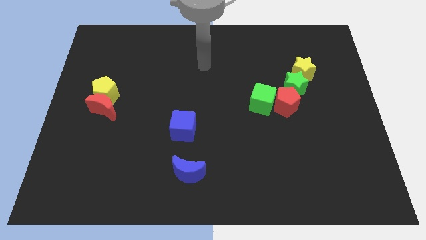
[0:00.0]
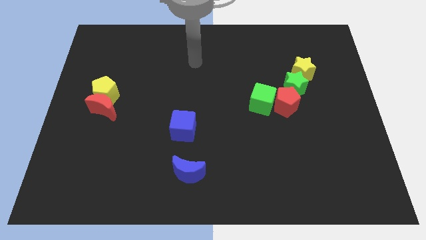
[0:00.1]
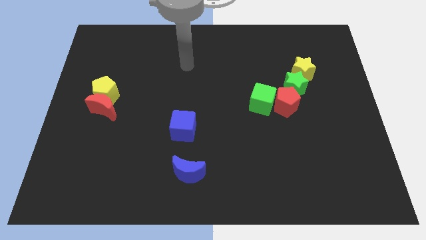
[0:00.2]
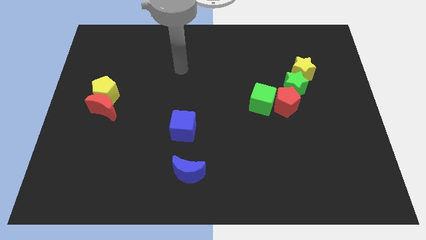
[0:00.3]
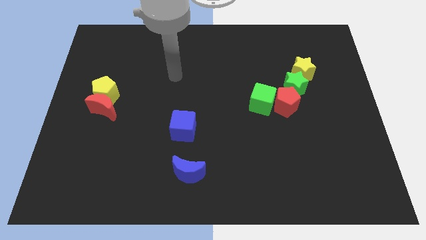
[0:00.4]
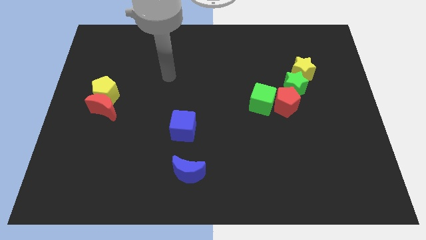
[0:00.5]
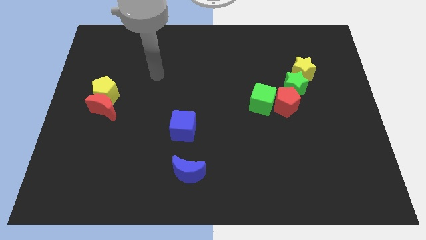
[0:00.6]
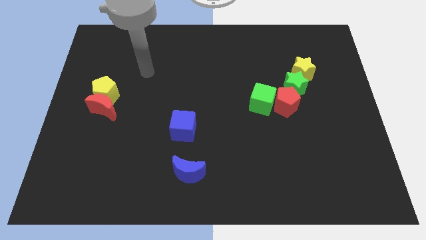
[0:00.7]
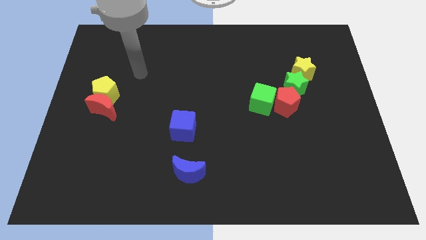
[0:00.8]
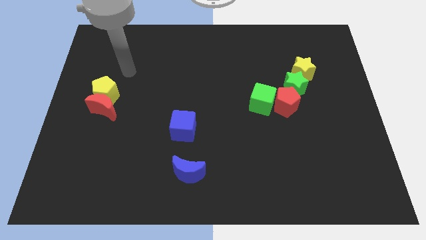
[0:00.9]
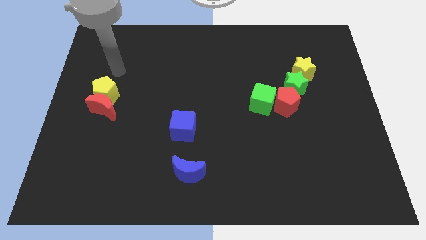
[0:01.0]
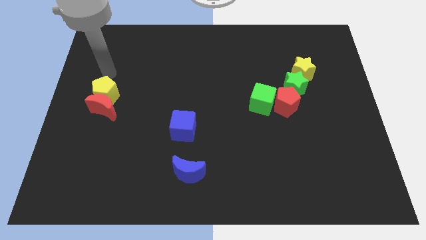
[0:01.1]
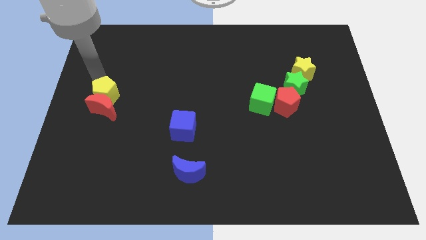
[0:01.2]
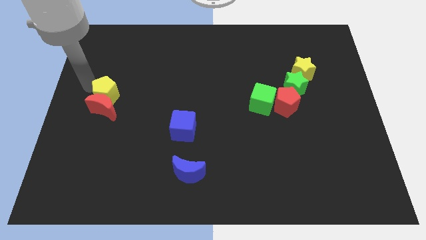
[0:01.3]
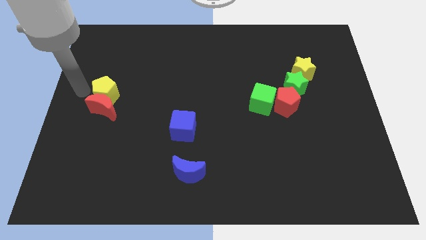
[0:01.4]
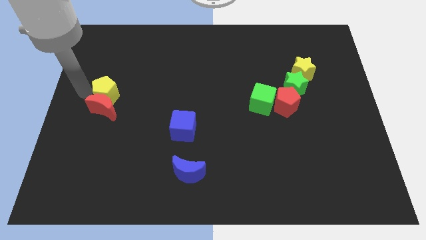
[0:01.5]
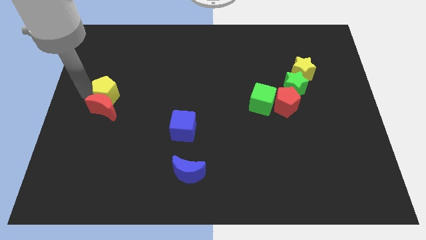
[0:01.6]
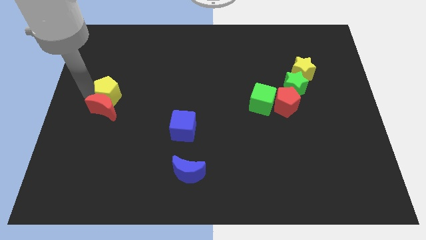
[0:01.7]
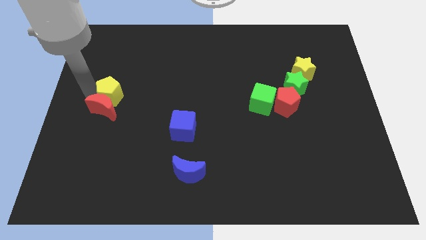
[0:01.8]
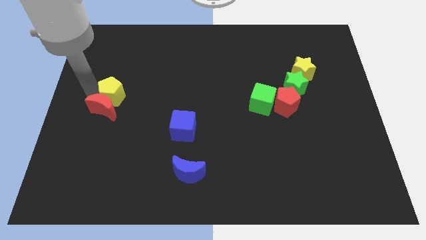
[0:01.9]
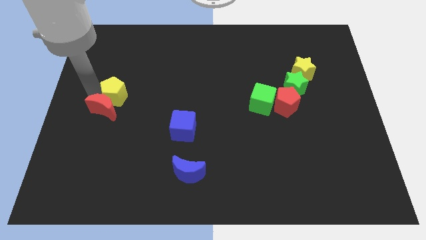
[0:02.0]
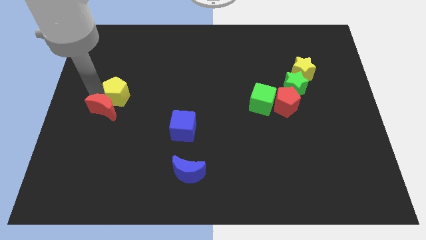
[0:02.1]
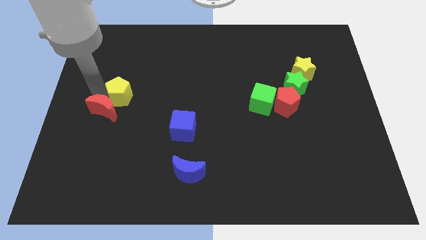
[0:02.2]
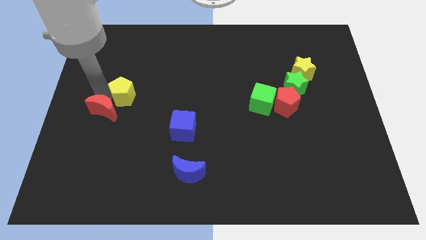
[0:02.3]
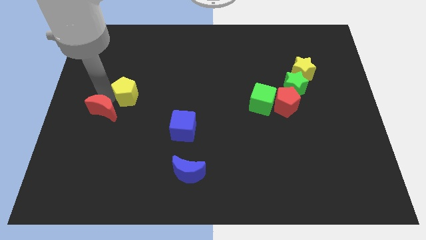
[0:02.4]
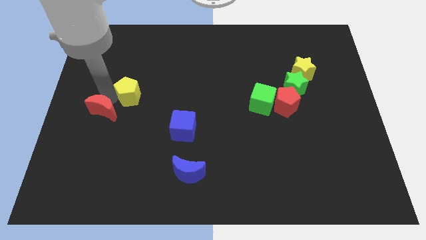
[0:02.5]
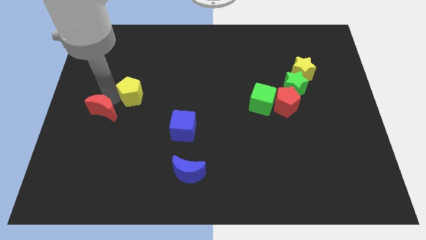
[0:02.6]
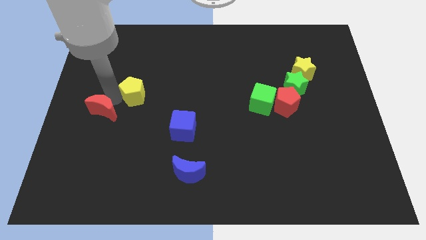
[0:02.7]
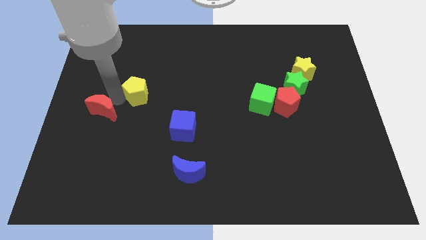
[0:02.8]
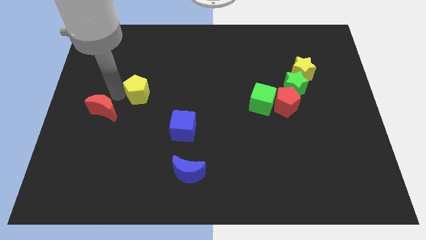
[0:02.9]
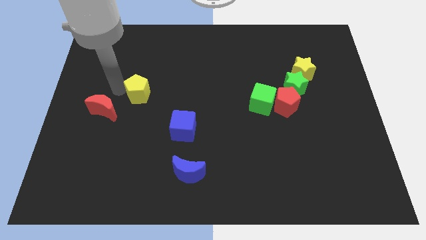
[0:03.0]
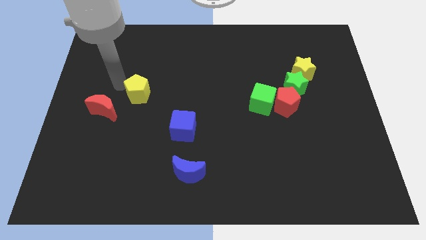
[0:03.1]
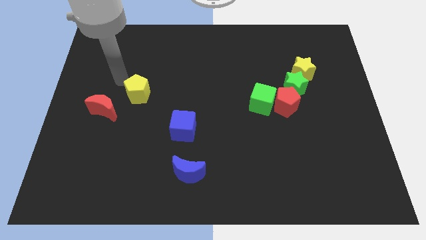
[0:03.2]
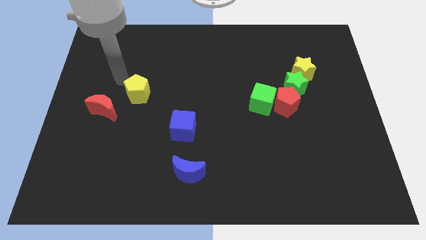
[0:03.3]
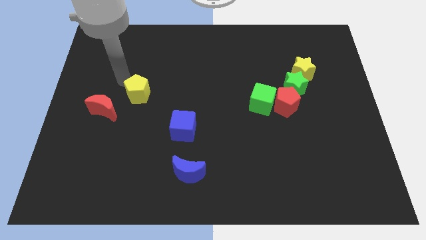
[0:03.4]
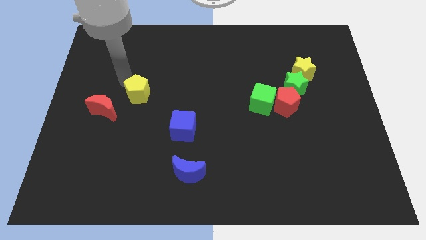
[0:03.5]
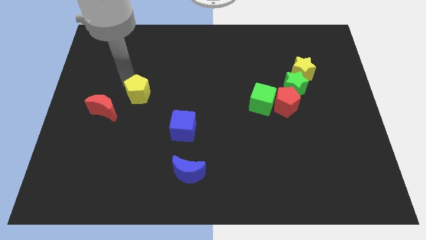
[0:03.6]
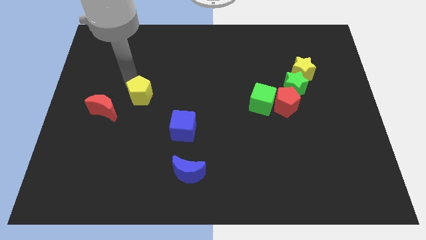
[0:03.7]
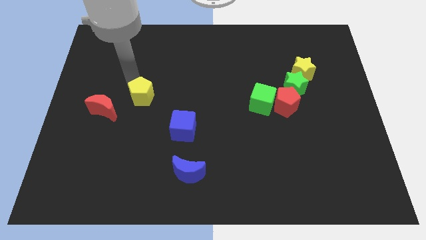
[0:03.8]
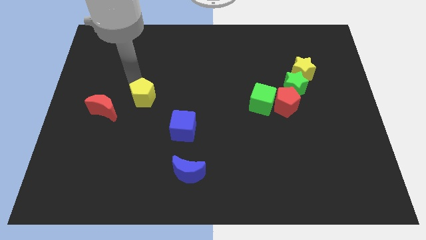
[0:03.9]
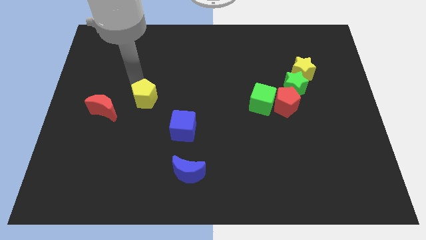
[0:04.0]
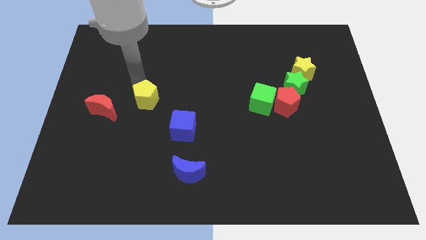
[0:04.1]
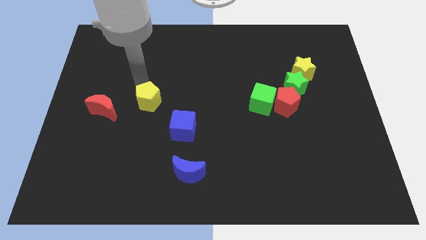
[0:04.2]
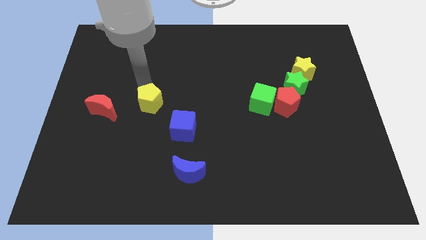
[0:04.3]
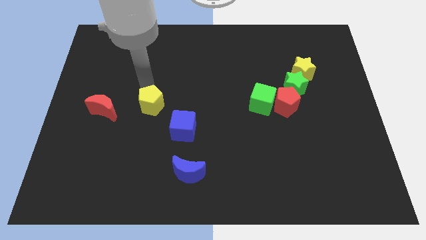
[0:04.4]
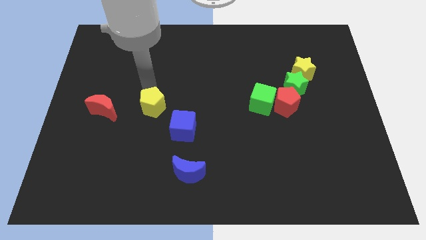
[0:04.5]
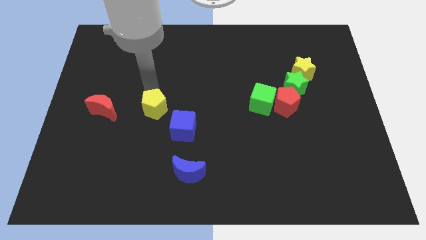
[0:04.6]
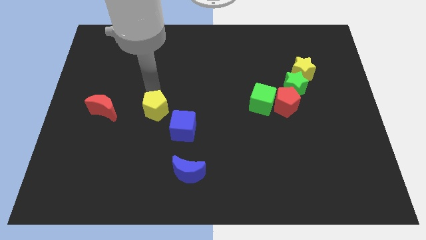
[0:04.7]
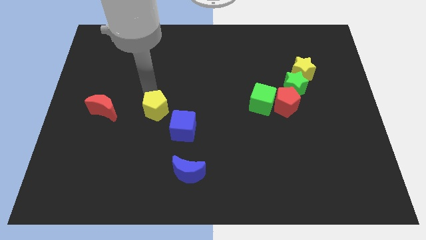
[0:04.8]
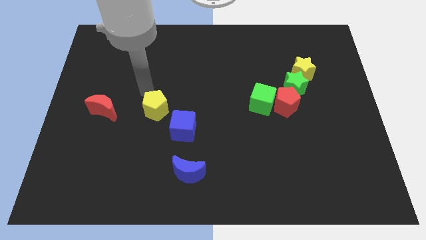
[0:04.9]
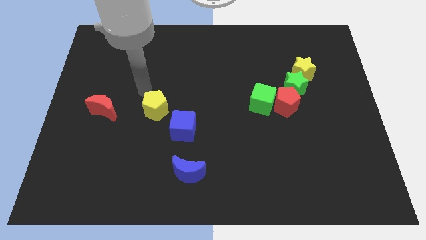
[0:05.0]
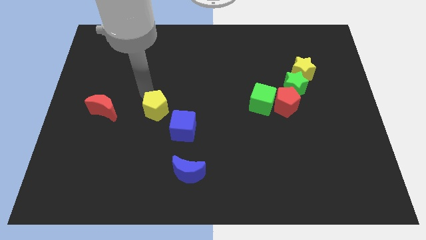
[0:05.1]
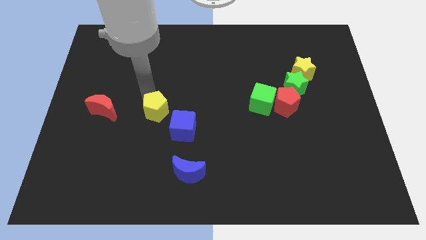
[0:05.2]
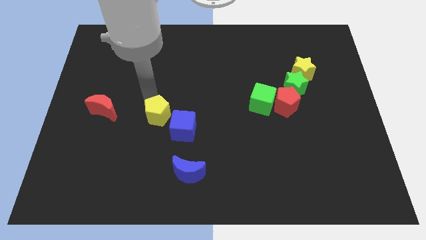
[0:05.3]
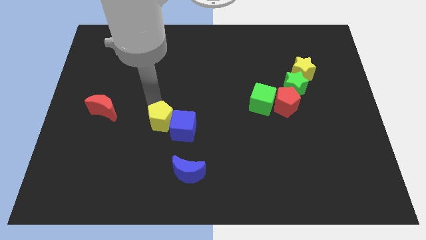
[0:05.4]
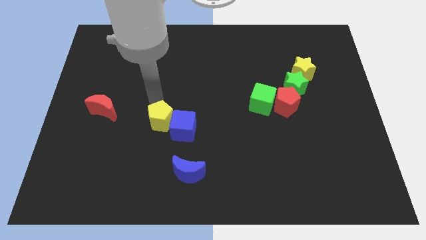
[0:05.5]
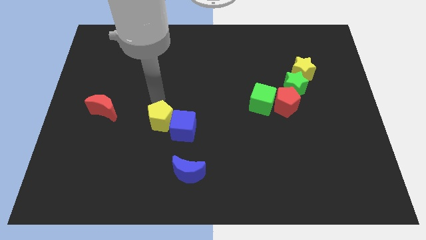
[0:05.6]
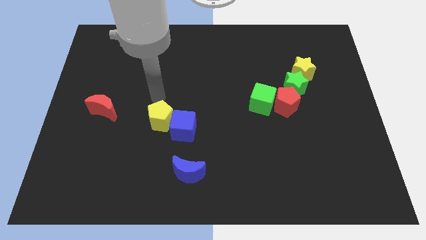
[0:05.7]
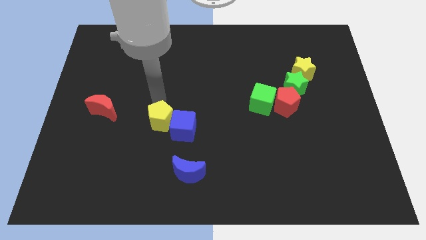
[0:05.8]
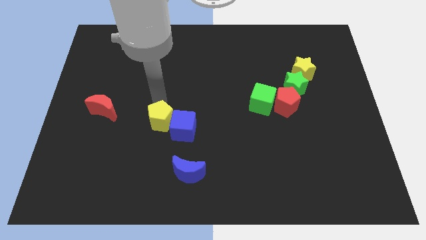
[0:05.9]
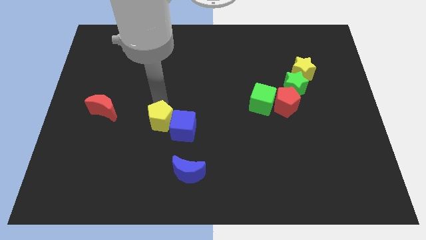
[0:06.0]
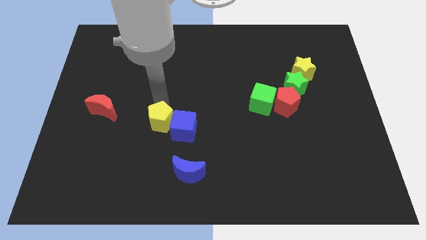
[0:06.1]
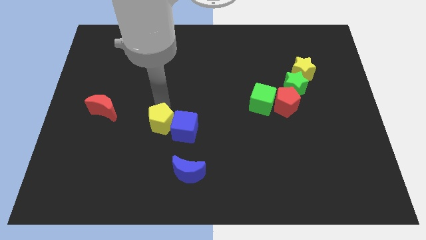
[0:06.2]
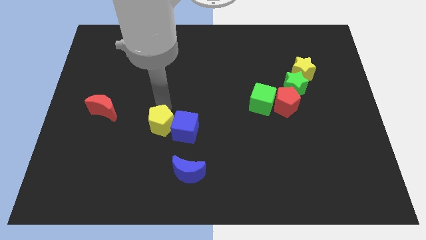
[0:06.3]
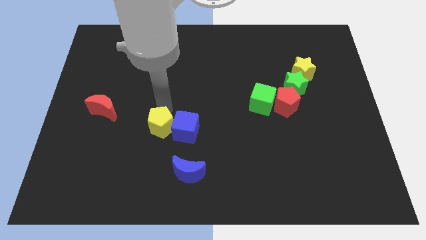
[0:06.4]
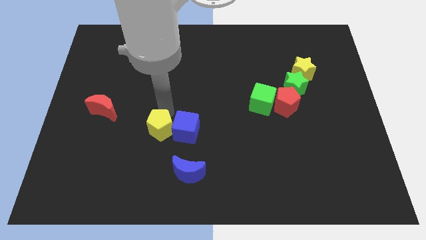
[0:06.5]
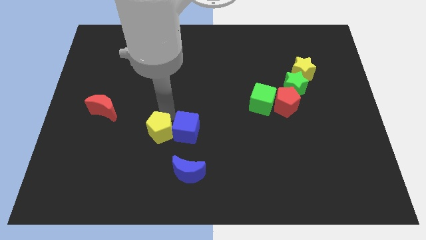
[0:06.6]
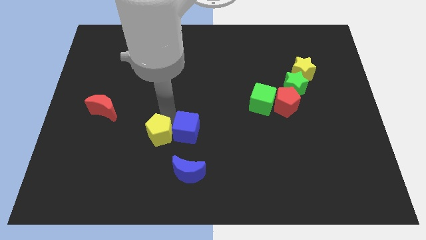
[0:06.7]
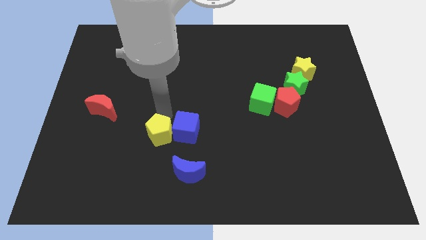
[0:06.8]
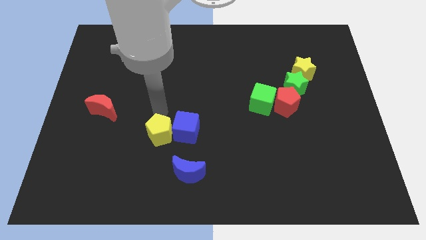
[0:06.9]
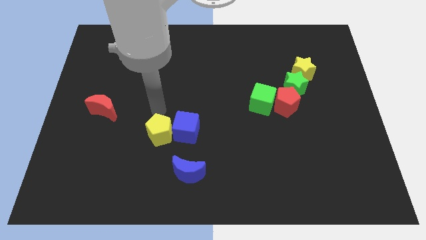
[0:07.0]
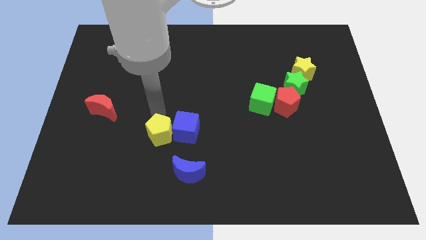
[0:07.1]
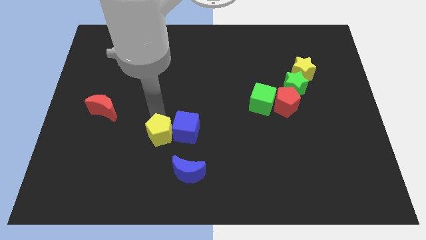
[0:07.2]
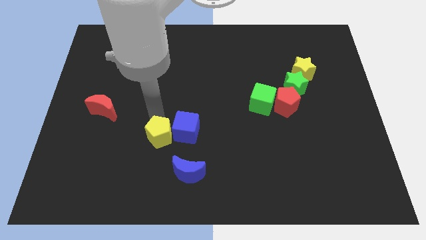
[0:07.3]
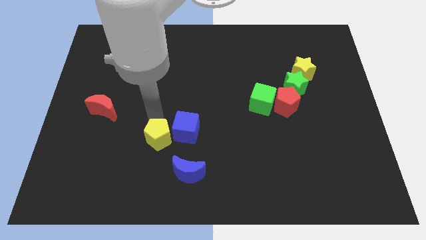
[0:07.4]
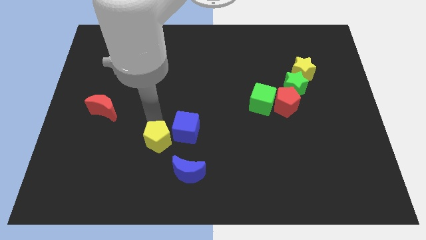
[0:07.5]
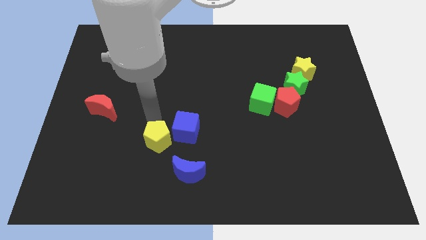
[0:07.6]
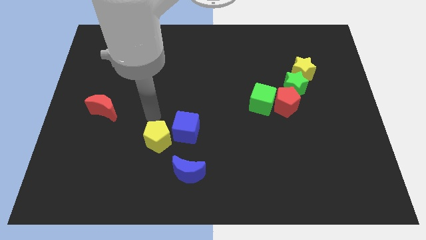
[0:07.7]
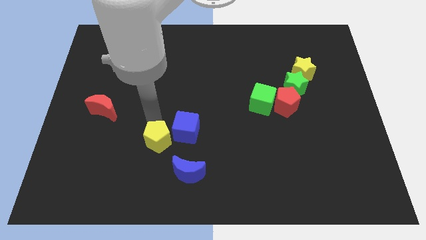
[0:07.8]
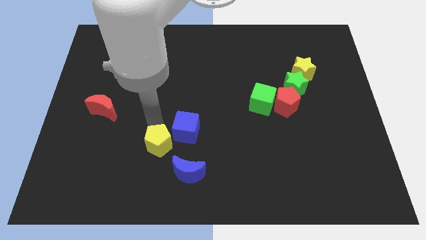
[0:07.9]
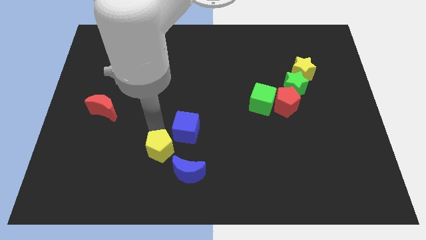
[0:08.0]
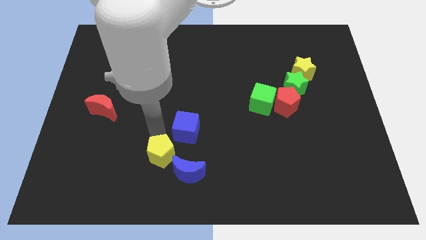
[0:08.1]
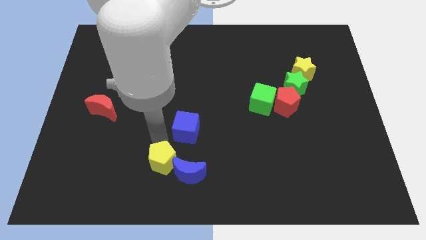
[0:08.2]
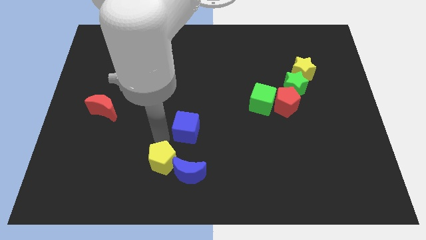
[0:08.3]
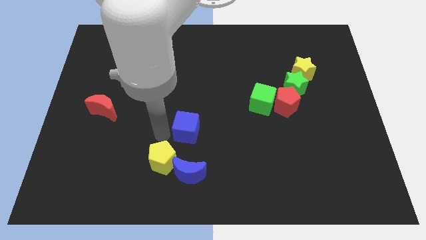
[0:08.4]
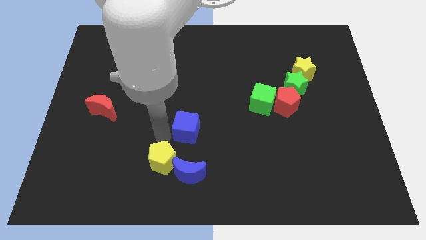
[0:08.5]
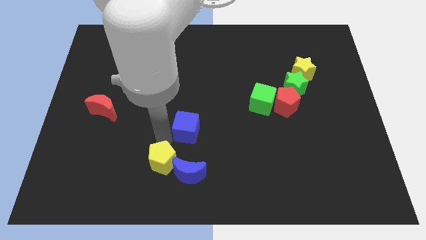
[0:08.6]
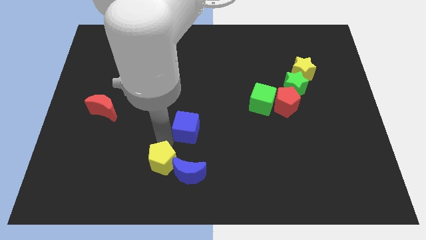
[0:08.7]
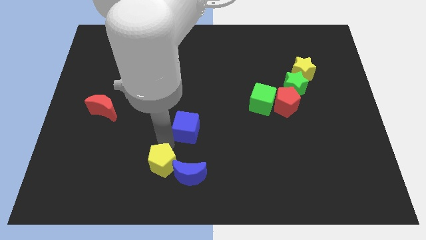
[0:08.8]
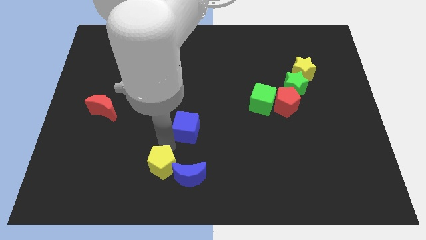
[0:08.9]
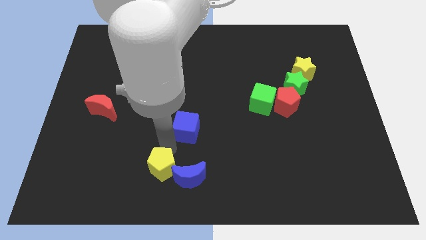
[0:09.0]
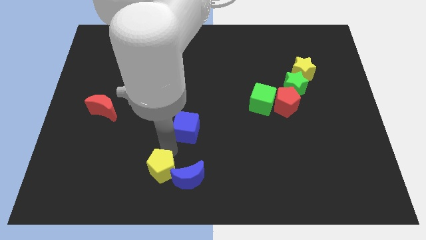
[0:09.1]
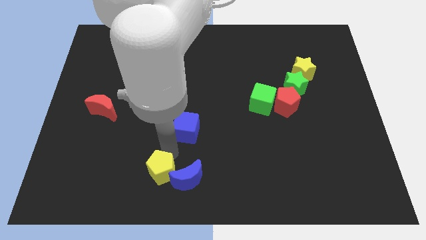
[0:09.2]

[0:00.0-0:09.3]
put the yellow pentagon to the bottom side
